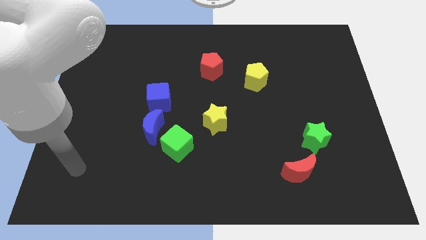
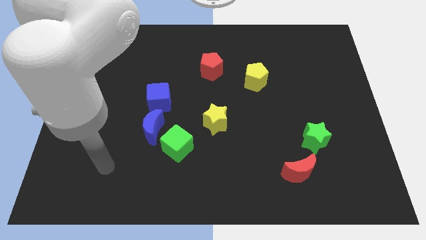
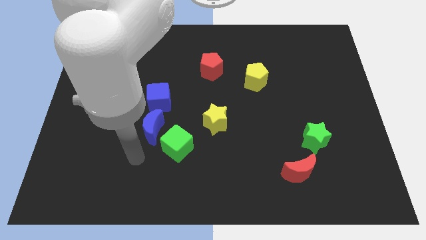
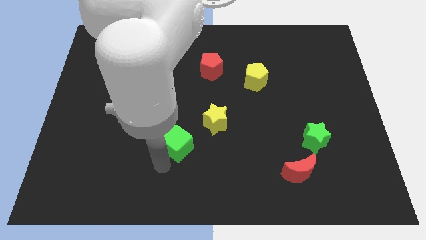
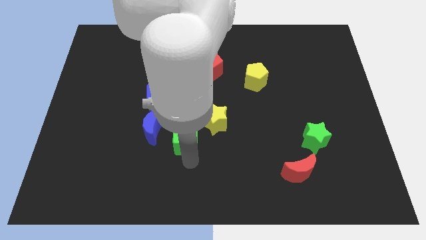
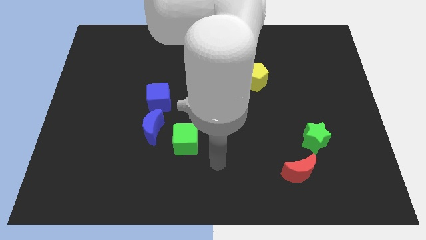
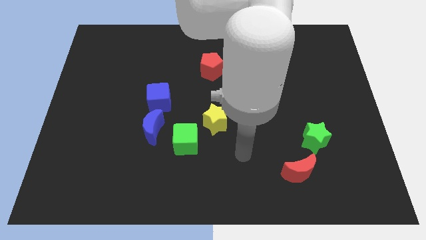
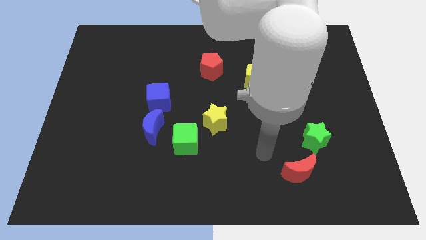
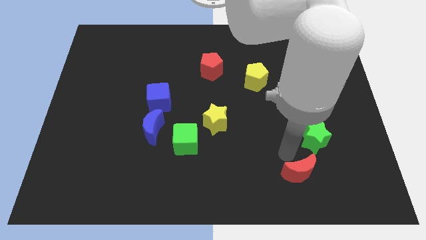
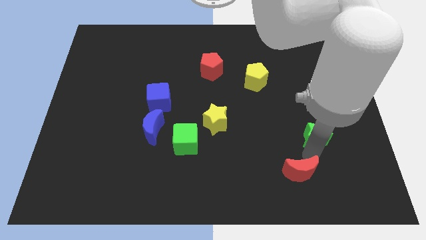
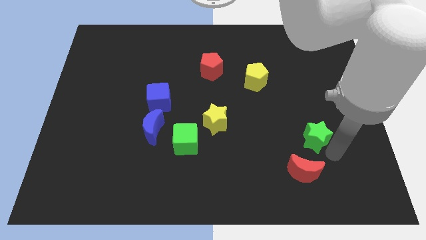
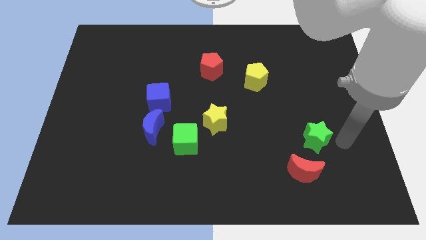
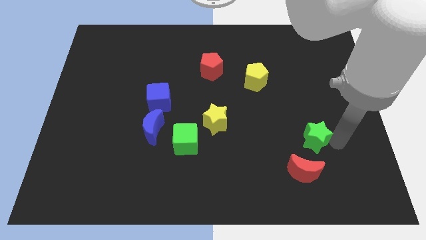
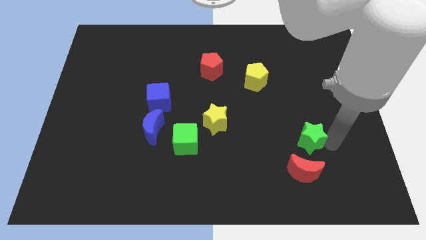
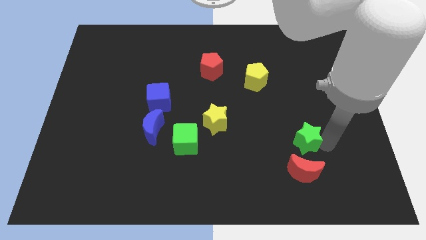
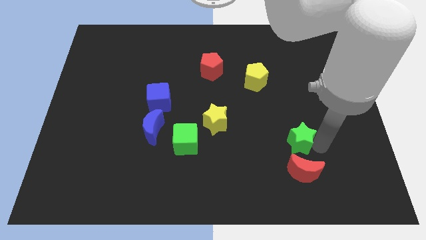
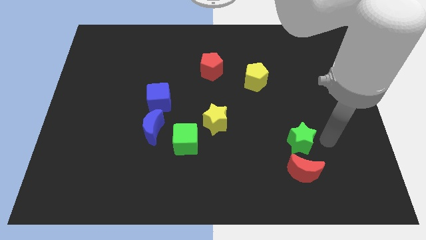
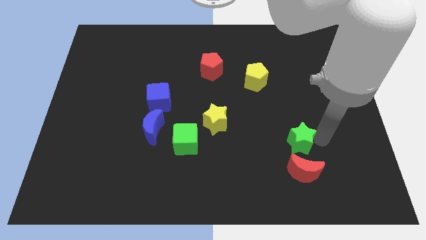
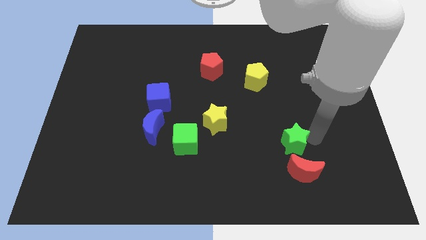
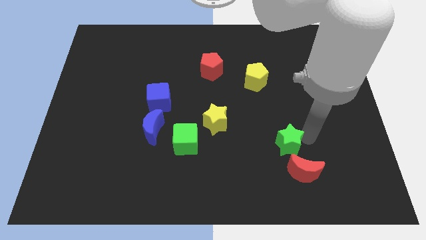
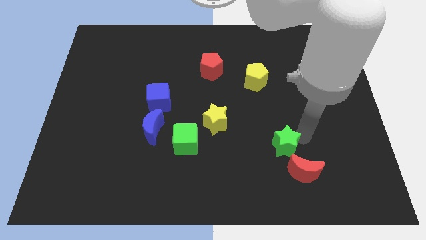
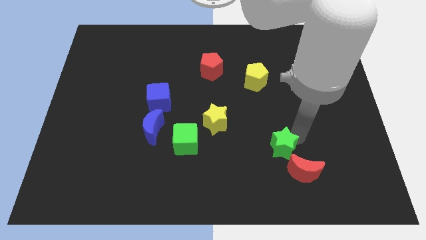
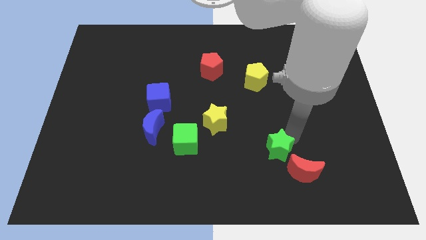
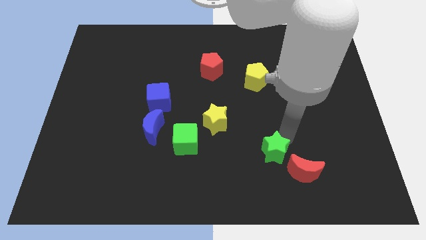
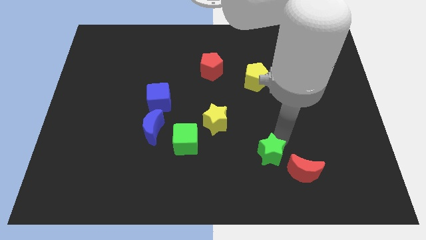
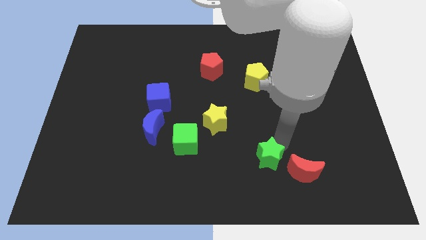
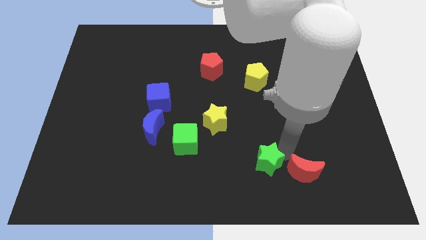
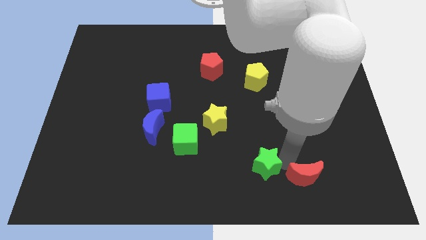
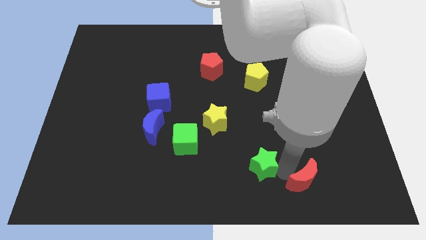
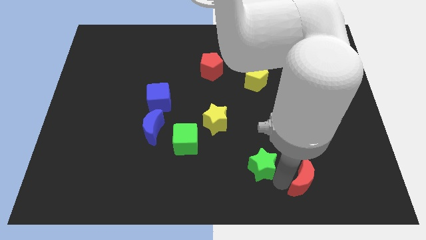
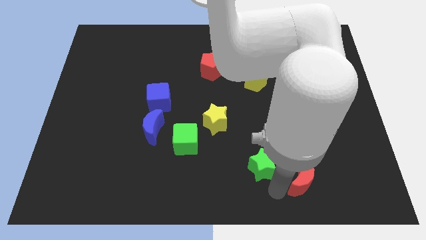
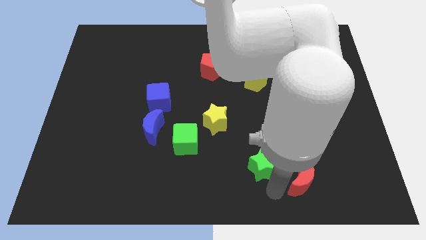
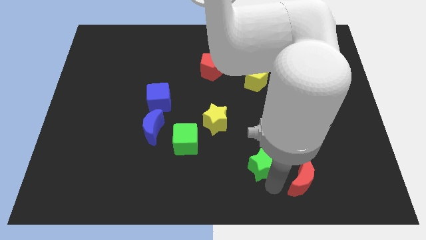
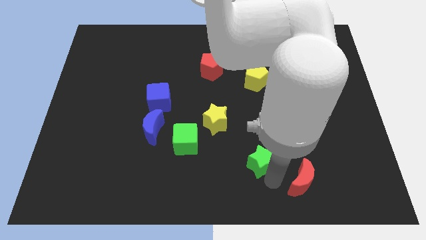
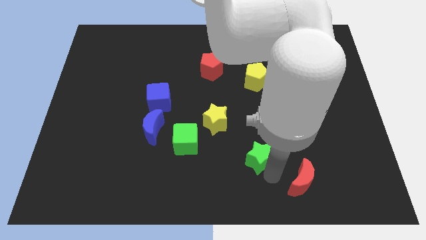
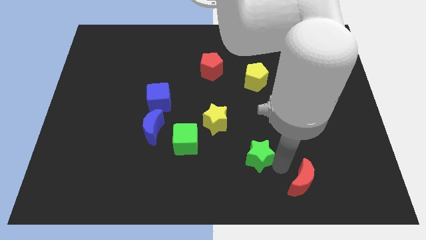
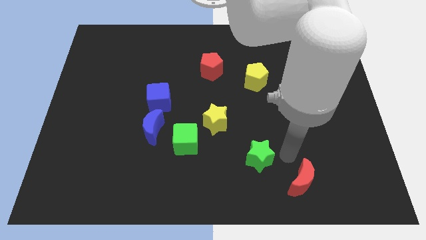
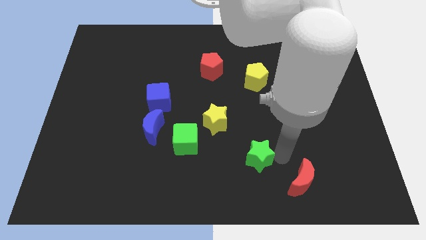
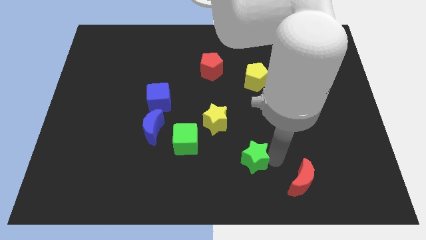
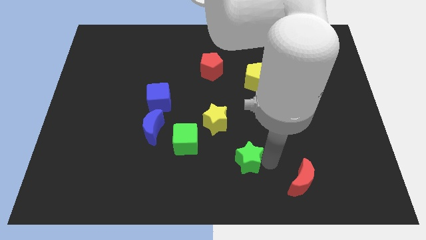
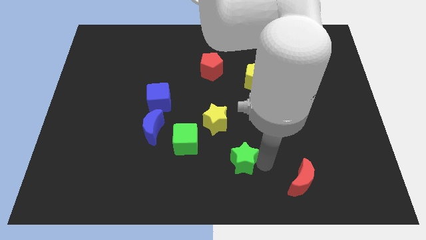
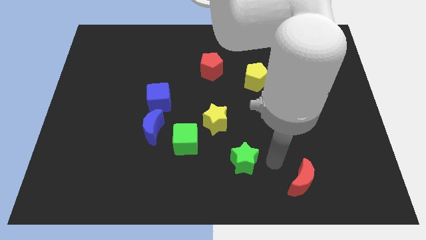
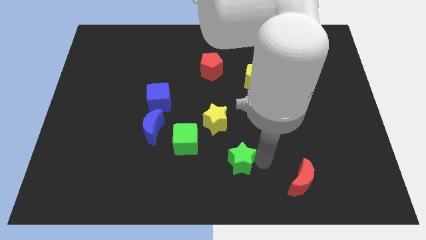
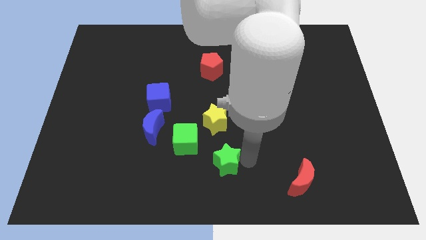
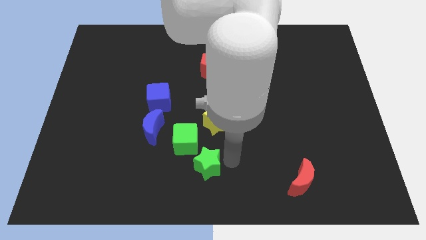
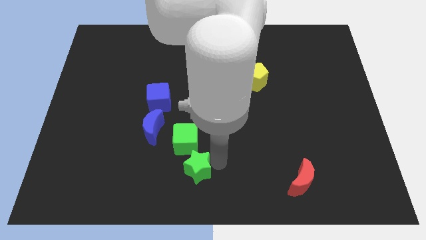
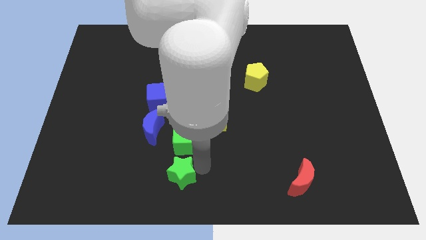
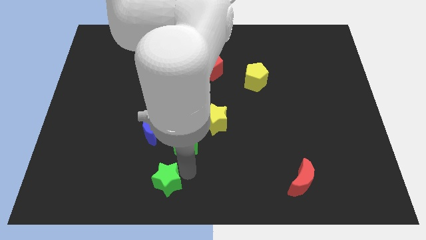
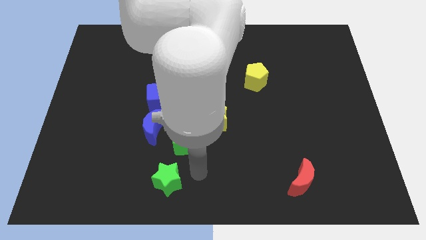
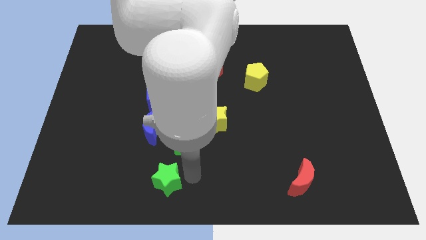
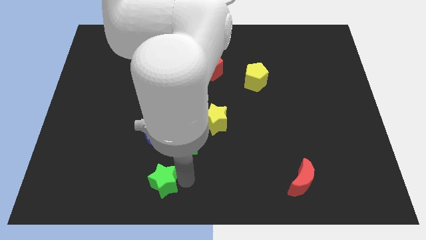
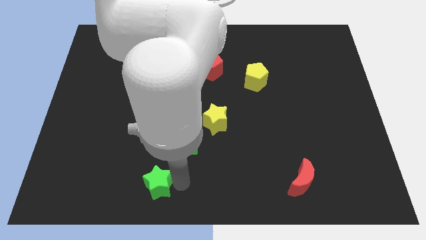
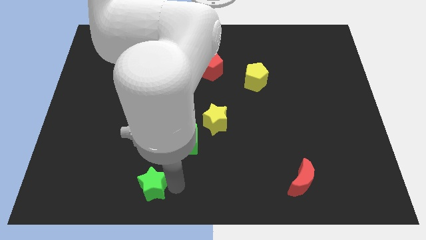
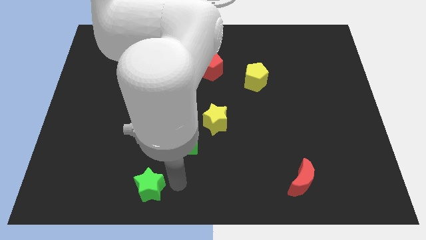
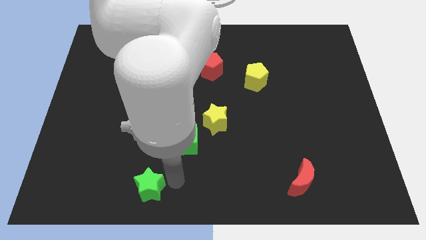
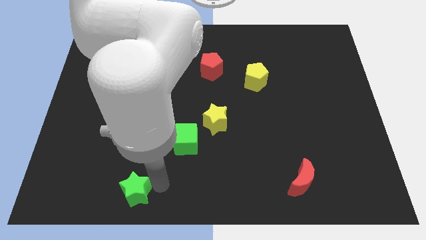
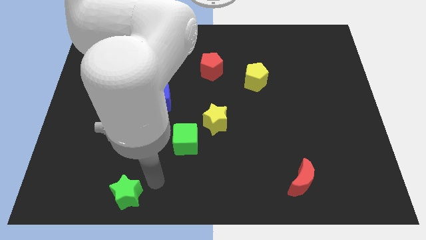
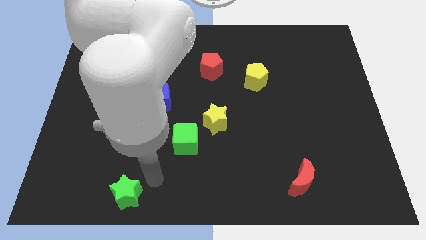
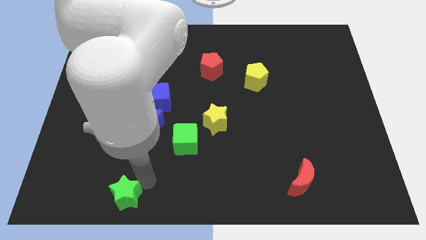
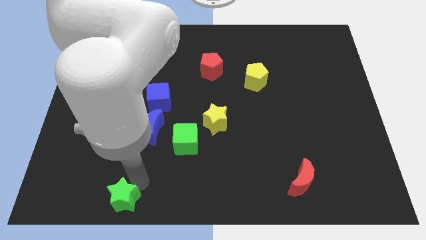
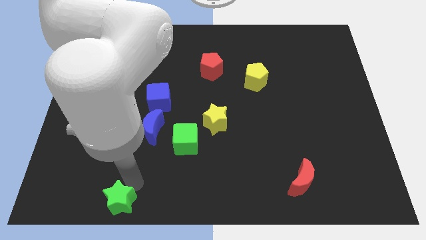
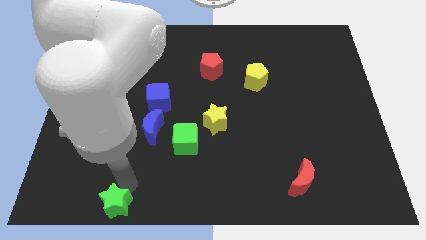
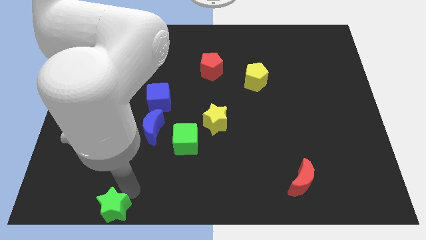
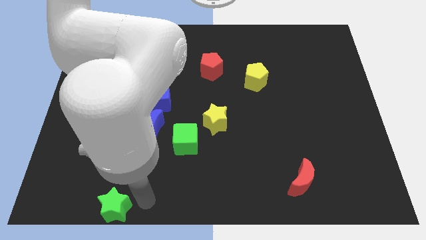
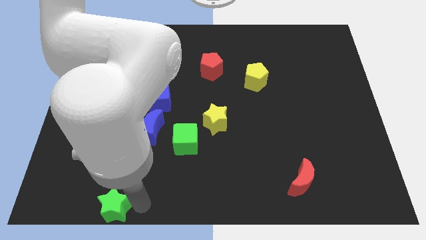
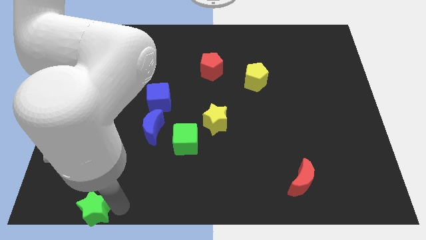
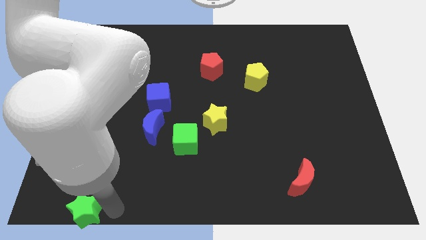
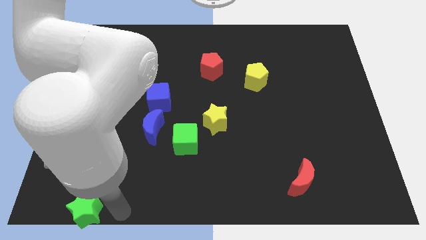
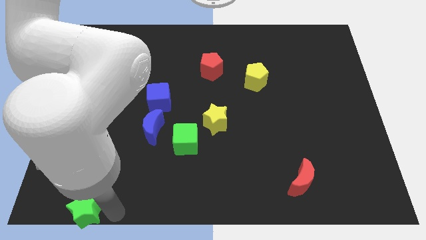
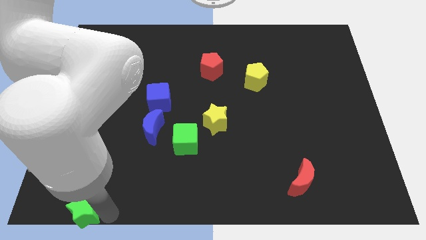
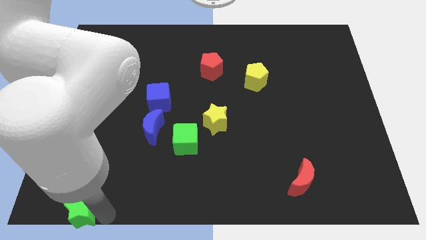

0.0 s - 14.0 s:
put the green star to the bottom left of the board
